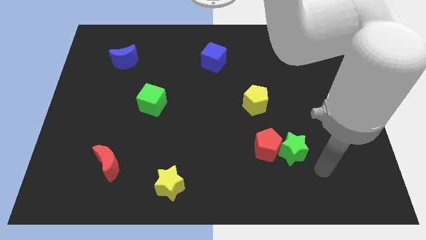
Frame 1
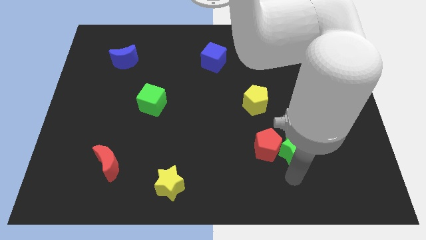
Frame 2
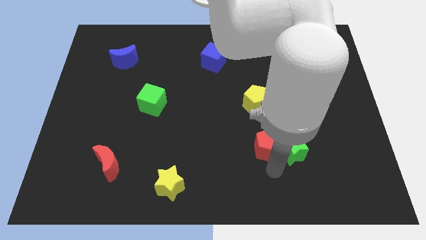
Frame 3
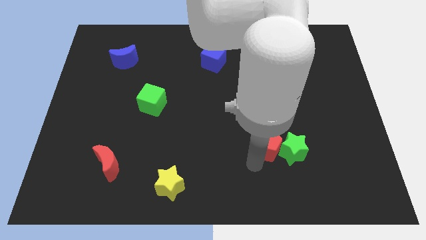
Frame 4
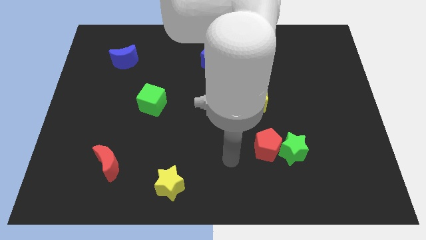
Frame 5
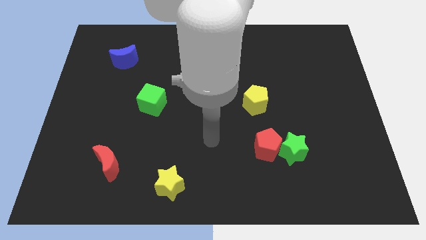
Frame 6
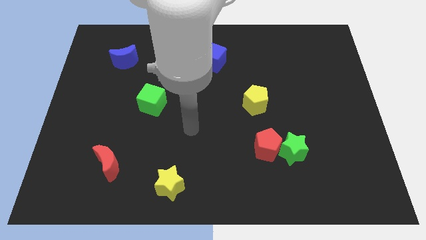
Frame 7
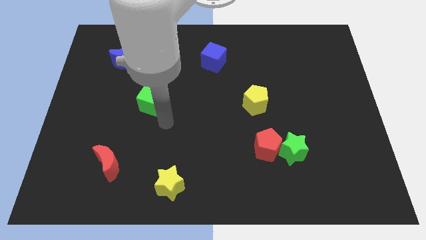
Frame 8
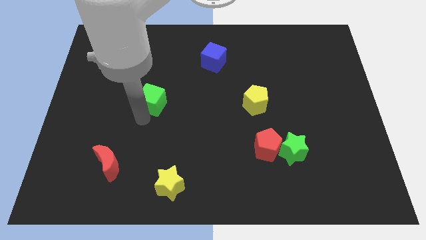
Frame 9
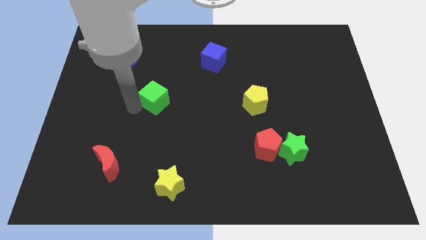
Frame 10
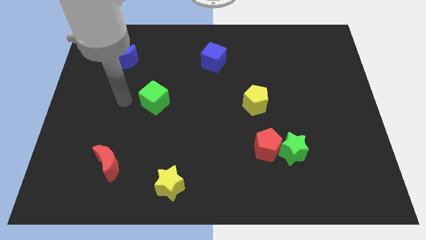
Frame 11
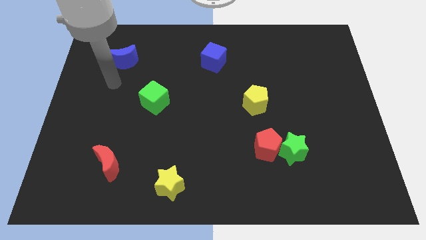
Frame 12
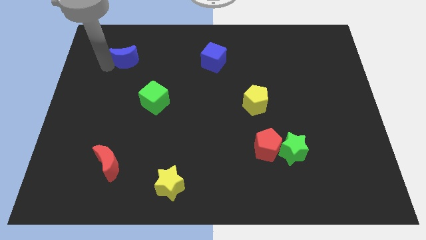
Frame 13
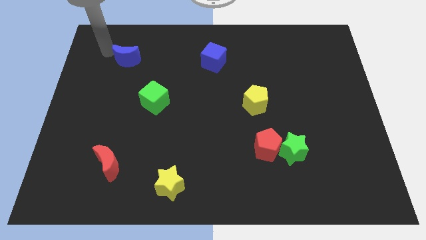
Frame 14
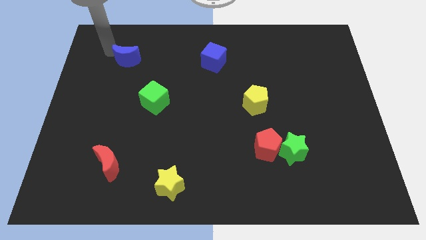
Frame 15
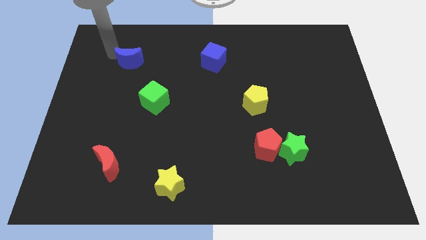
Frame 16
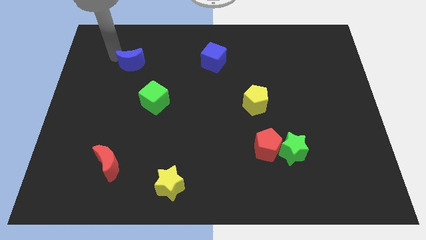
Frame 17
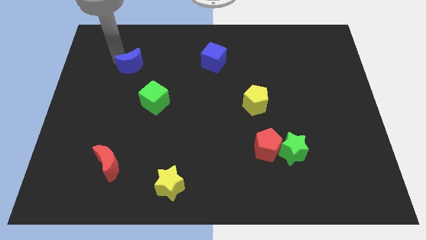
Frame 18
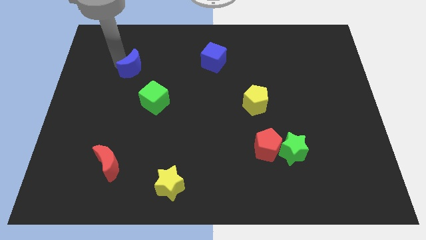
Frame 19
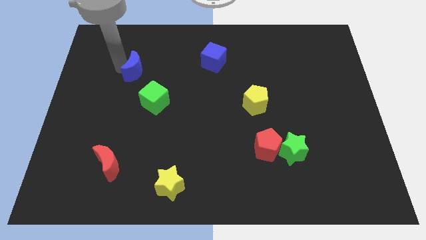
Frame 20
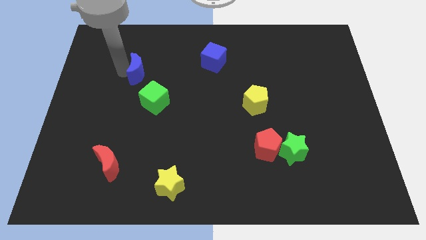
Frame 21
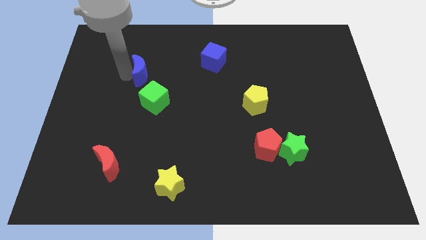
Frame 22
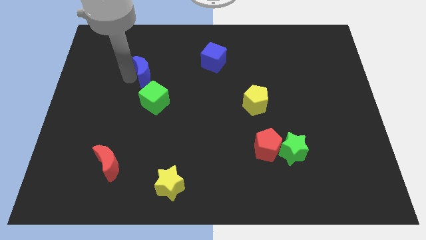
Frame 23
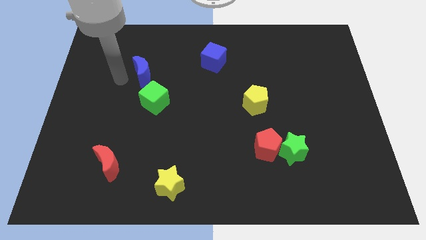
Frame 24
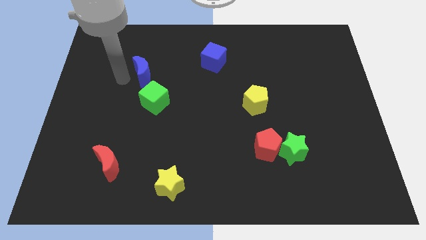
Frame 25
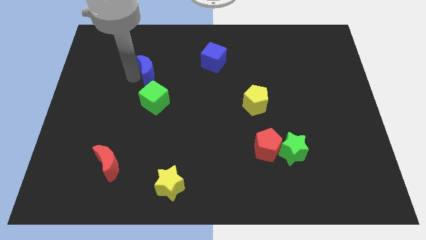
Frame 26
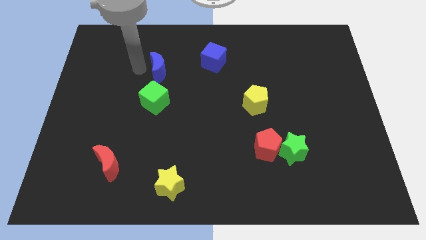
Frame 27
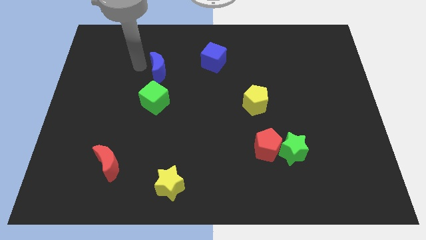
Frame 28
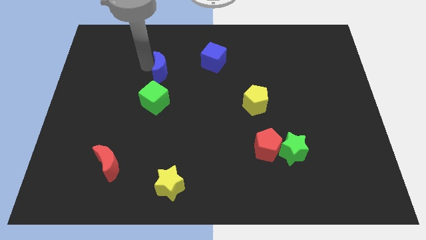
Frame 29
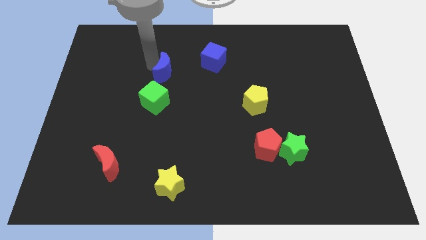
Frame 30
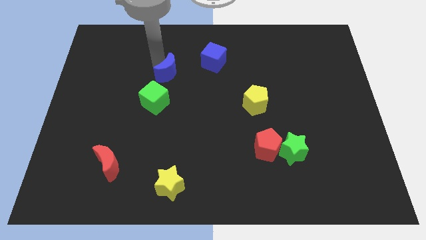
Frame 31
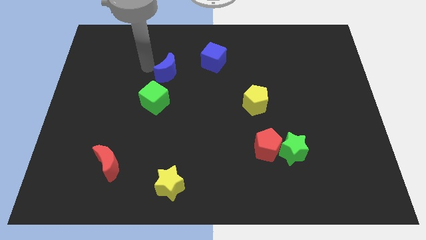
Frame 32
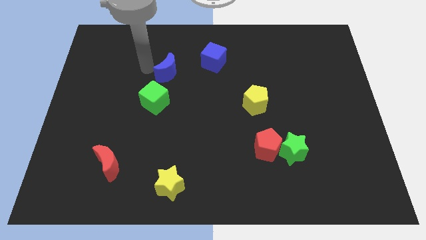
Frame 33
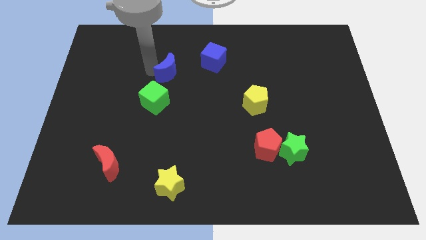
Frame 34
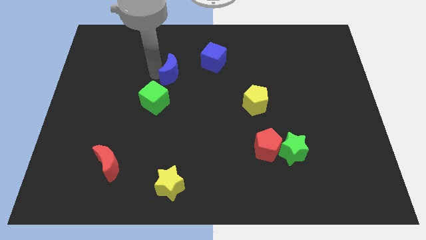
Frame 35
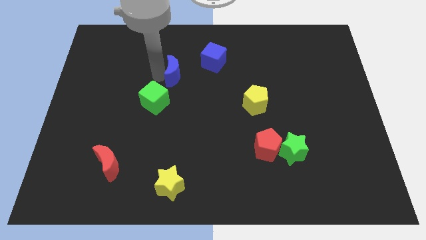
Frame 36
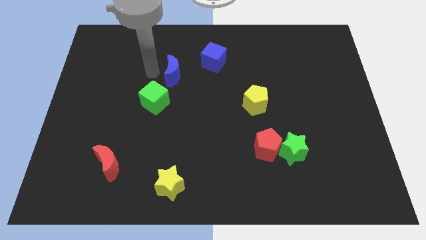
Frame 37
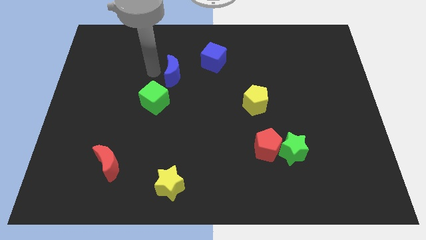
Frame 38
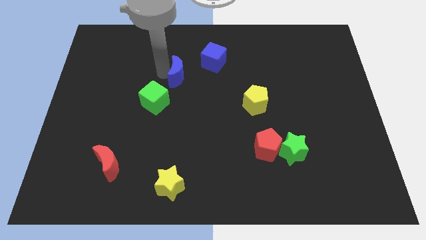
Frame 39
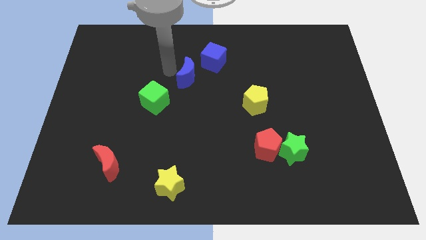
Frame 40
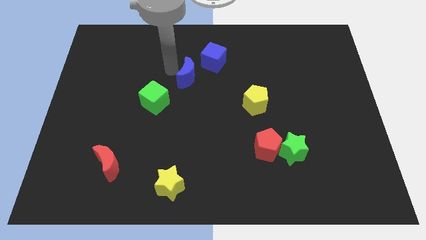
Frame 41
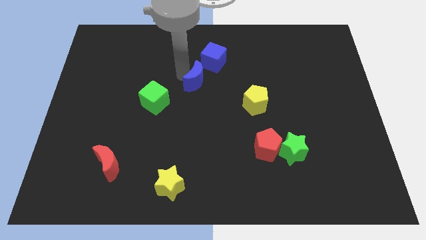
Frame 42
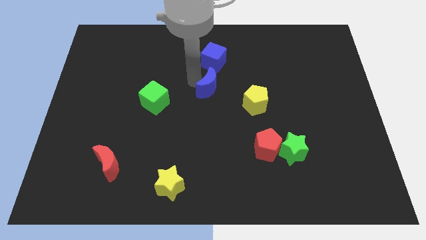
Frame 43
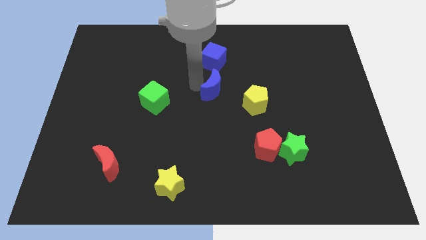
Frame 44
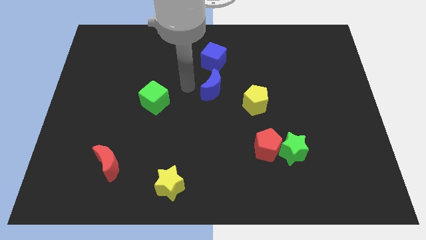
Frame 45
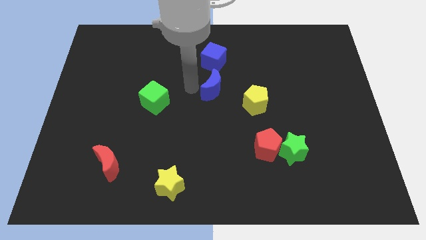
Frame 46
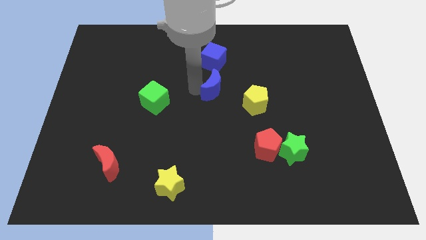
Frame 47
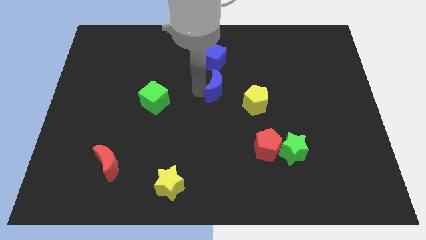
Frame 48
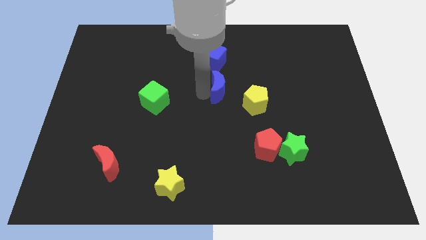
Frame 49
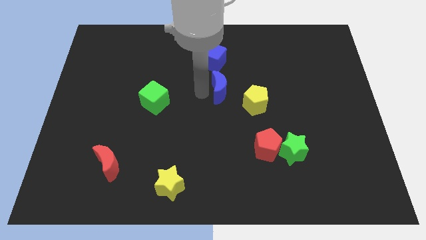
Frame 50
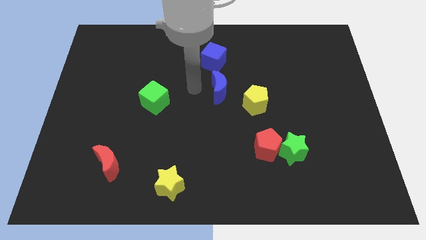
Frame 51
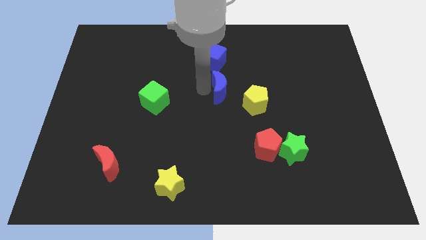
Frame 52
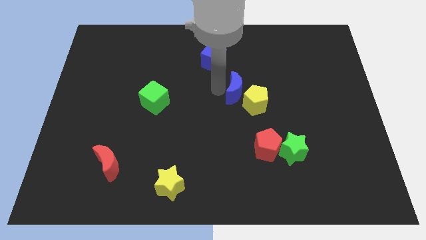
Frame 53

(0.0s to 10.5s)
move the blue moon towards the yellow pentagon

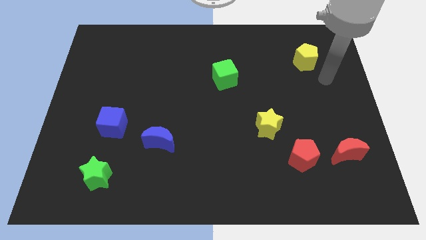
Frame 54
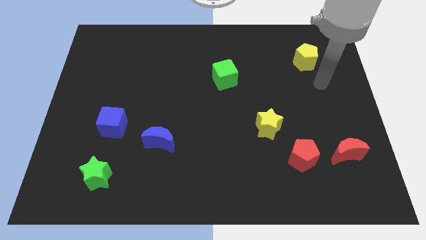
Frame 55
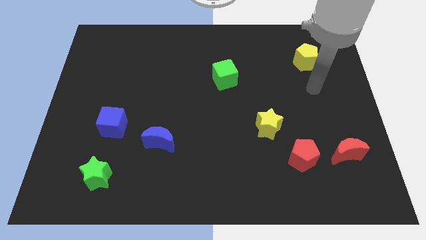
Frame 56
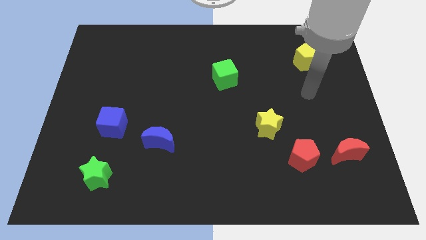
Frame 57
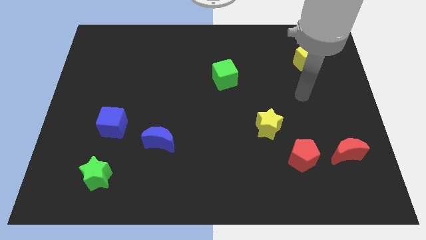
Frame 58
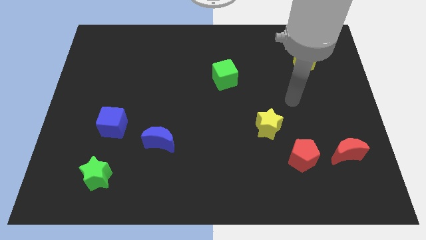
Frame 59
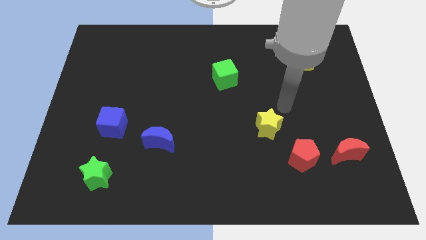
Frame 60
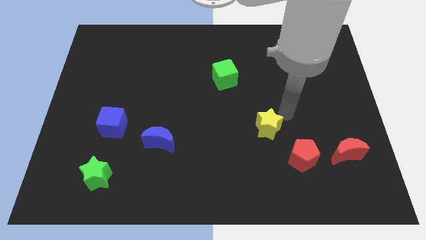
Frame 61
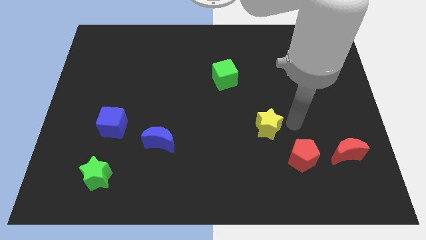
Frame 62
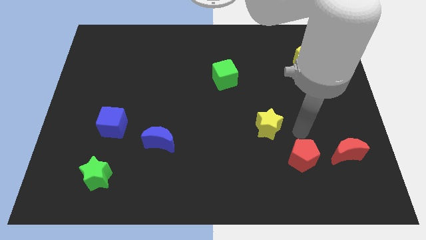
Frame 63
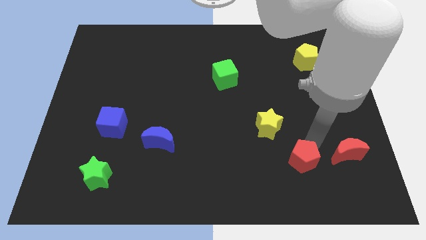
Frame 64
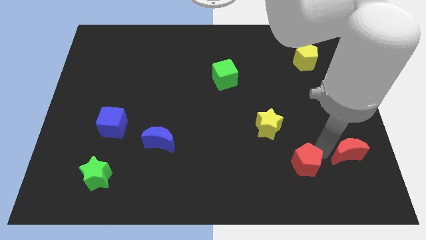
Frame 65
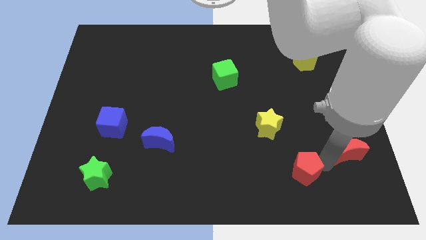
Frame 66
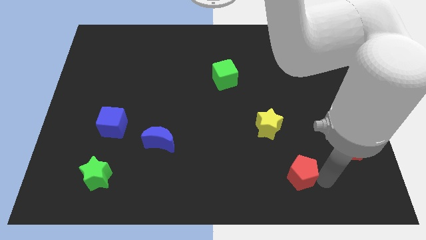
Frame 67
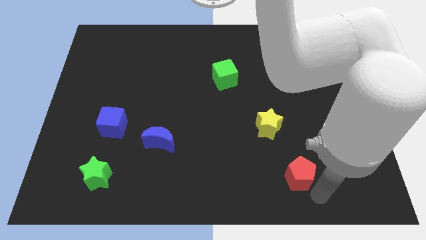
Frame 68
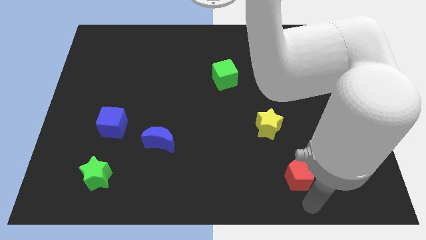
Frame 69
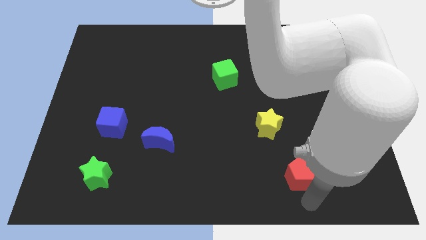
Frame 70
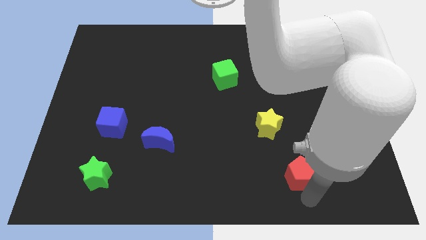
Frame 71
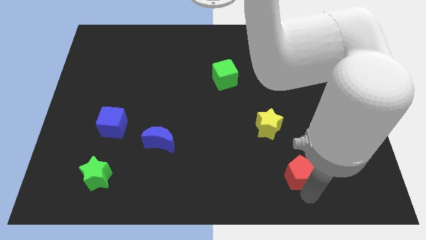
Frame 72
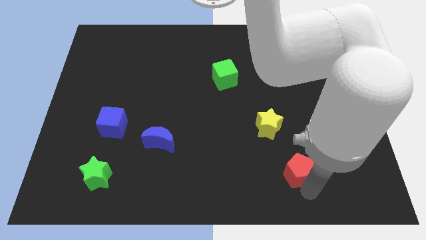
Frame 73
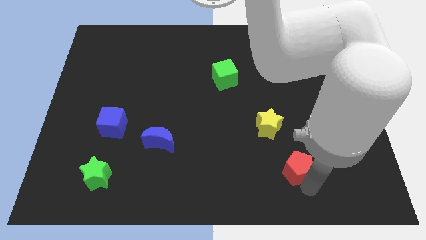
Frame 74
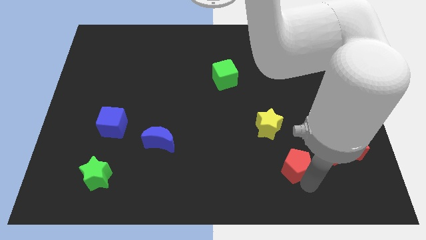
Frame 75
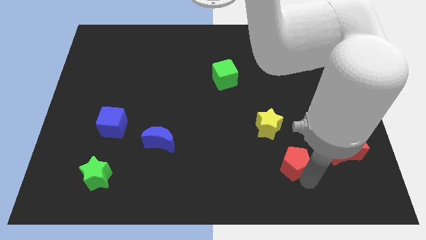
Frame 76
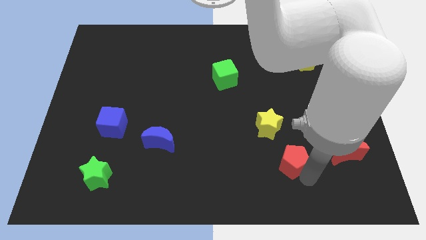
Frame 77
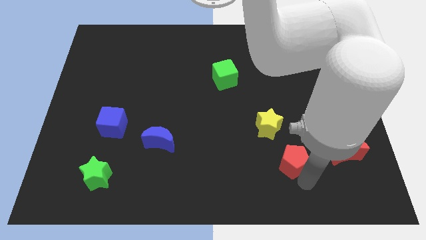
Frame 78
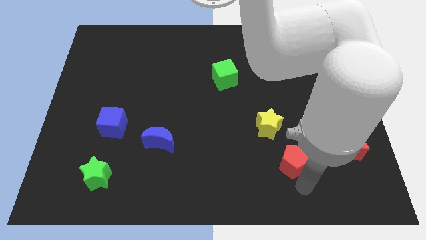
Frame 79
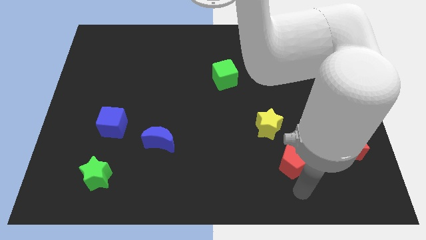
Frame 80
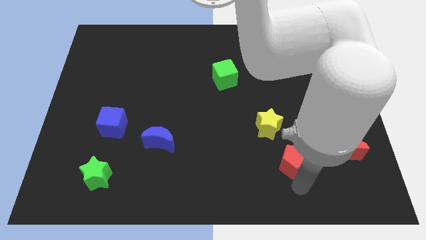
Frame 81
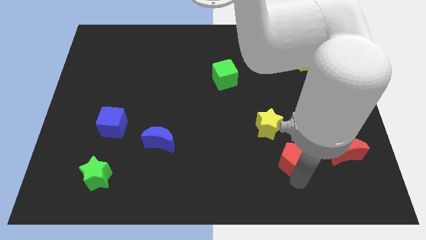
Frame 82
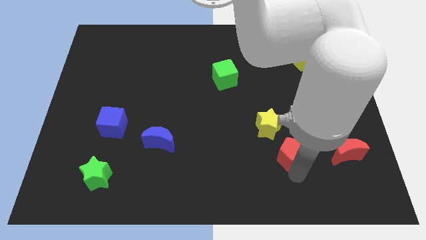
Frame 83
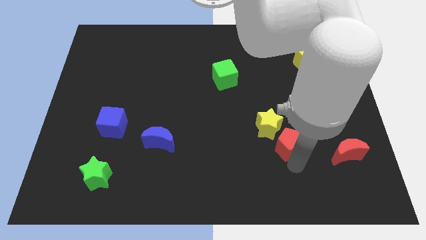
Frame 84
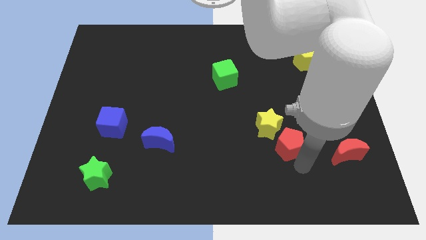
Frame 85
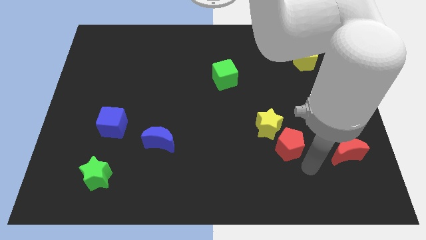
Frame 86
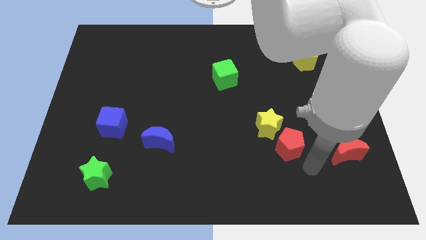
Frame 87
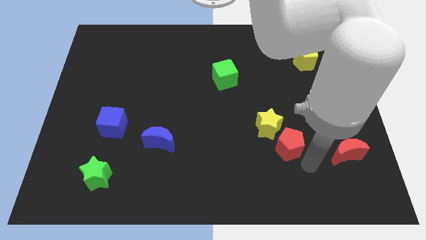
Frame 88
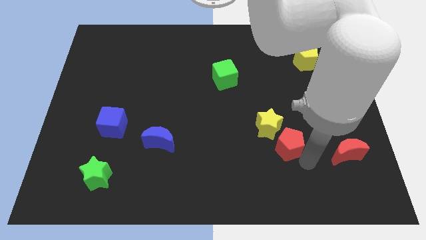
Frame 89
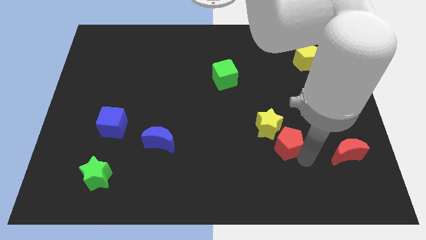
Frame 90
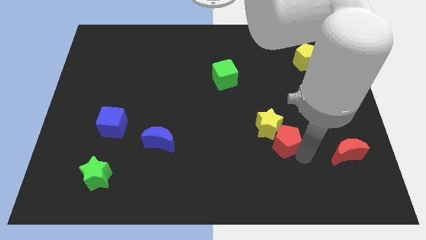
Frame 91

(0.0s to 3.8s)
move the red pentagon to the yellow star
